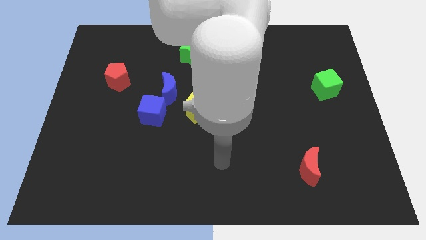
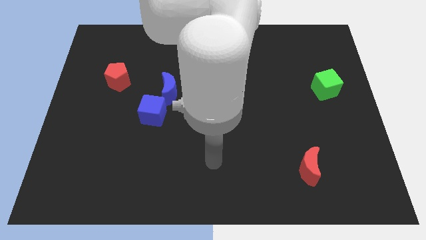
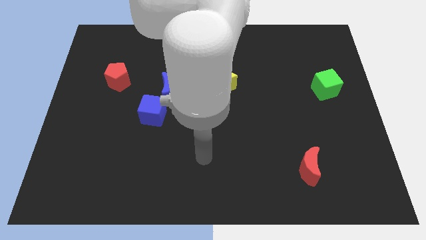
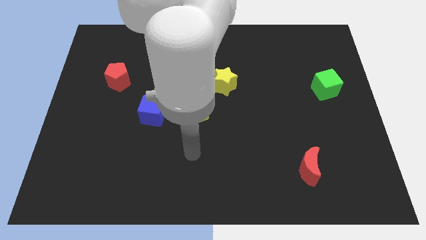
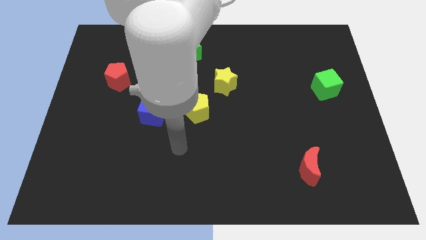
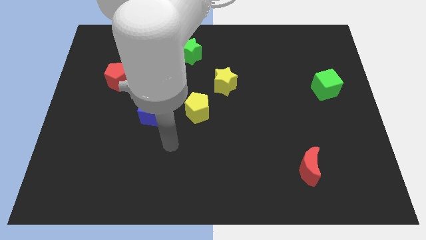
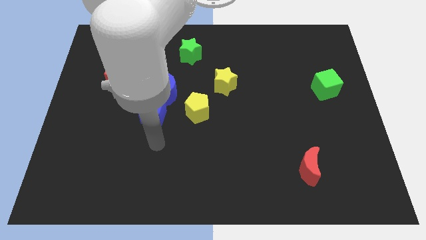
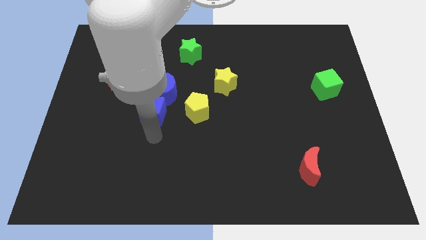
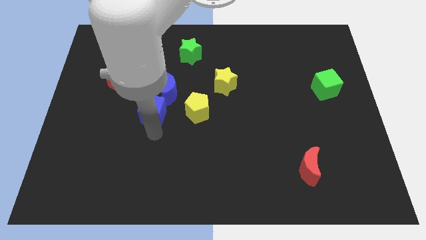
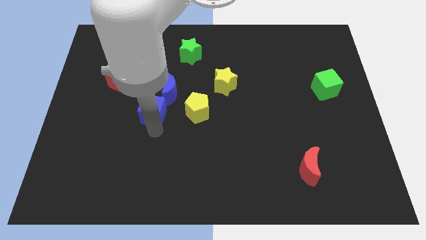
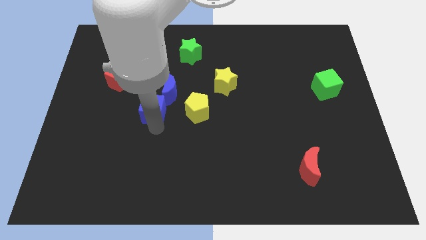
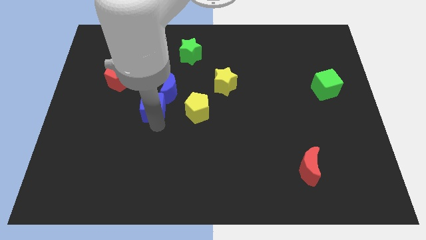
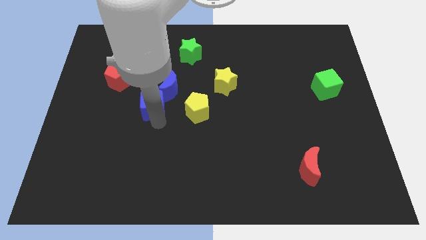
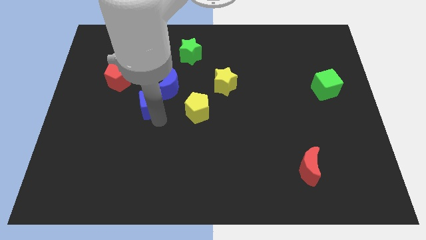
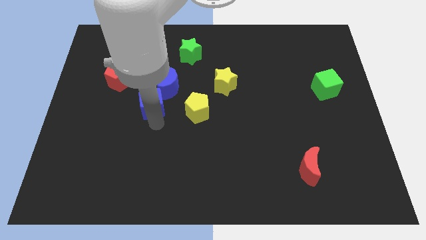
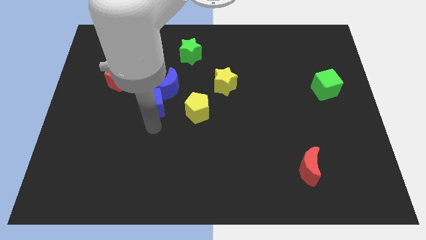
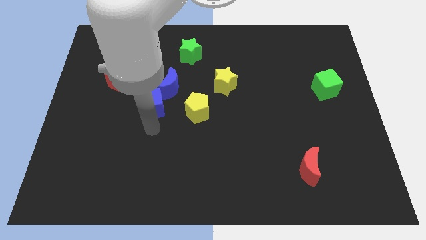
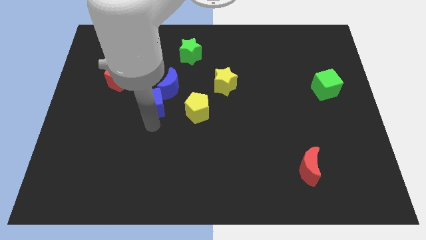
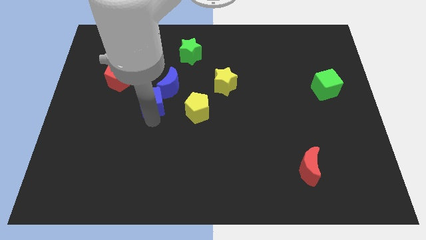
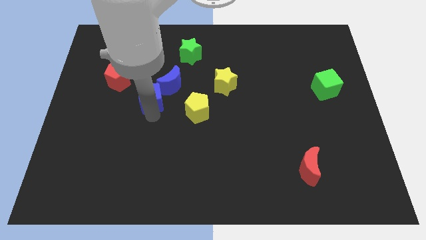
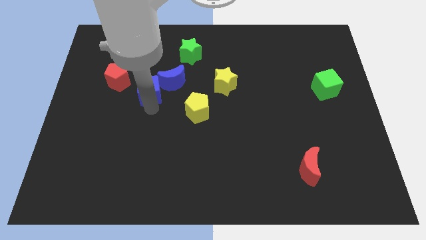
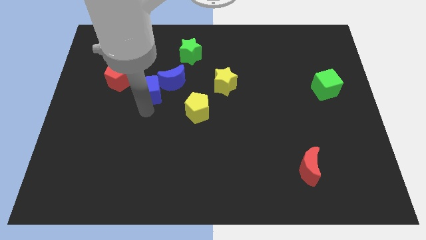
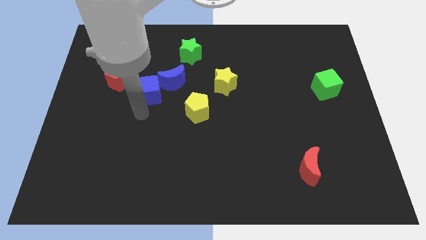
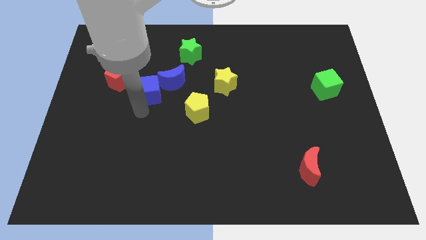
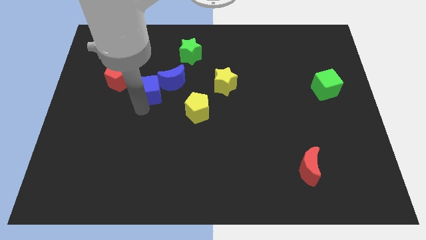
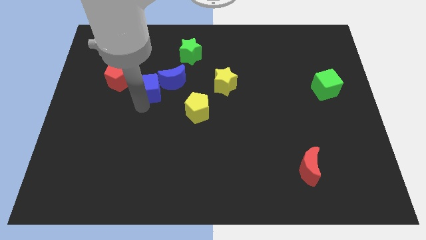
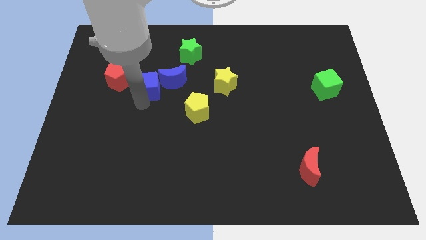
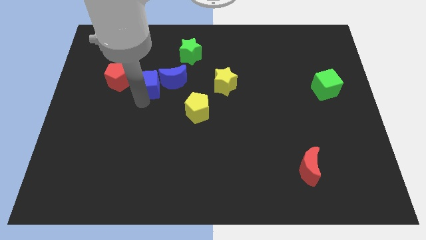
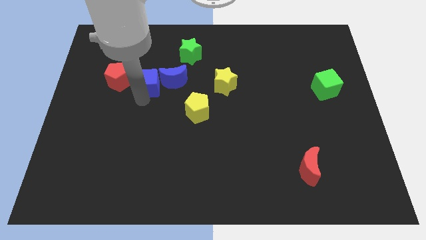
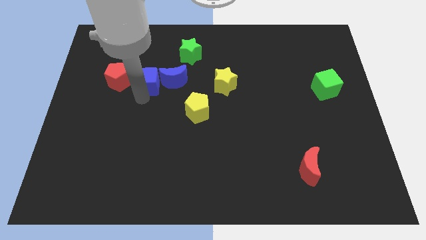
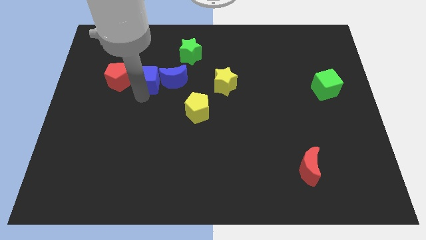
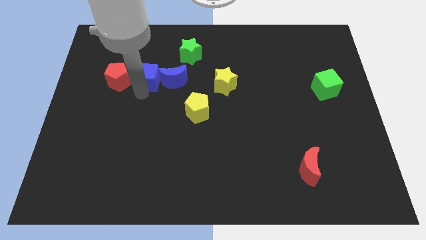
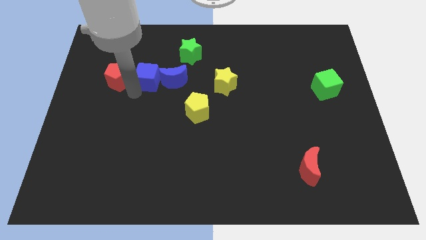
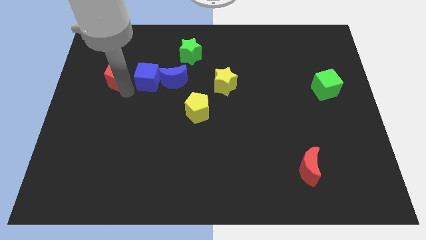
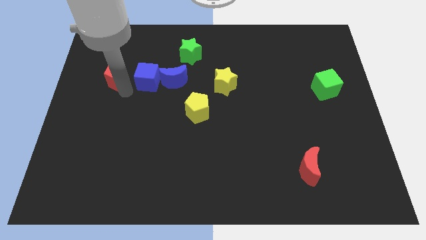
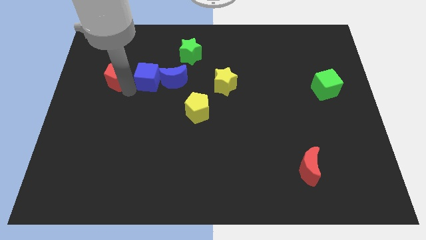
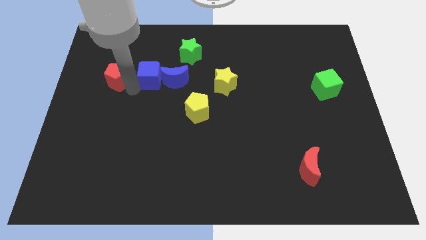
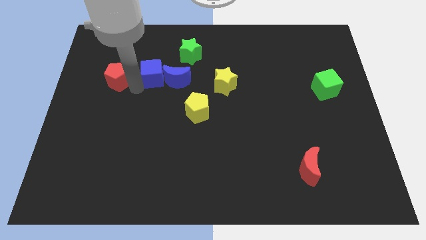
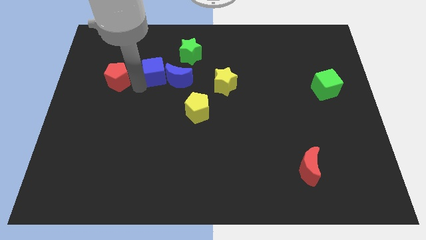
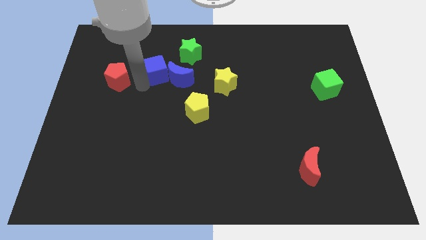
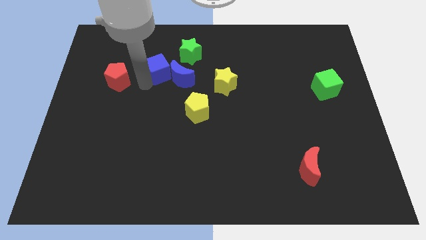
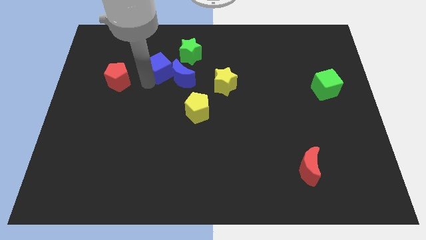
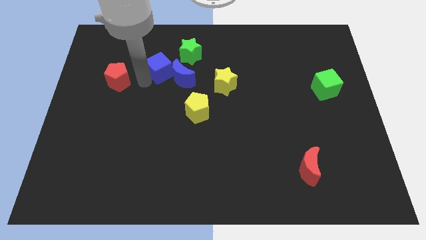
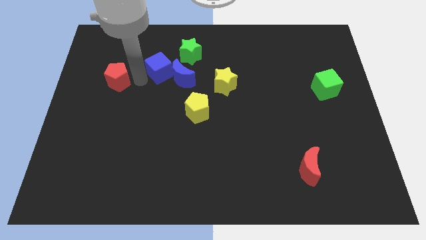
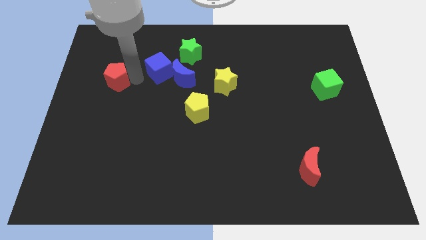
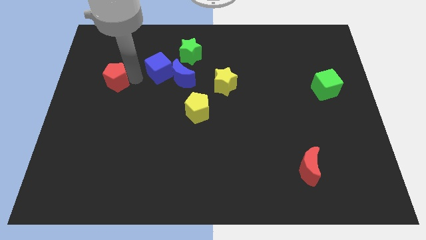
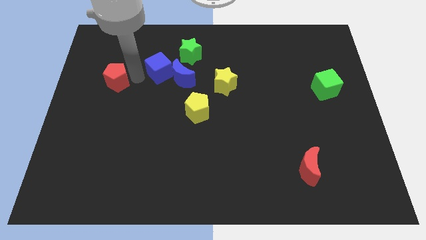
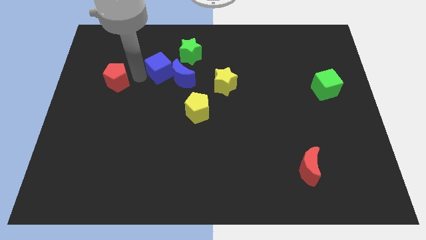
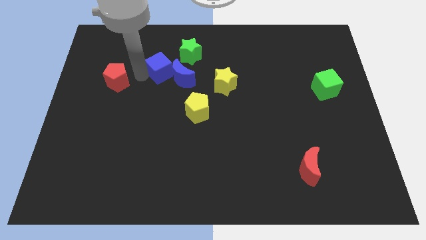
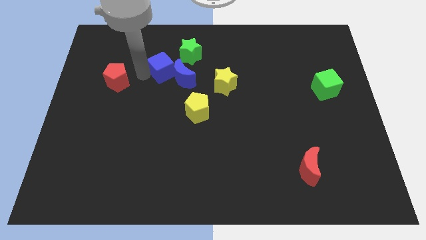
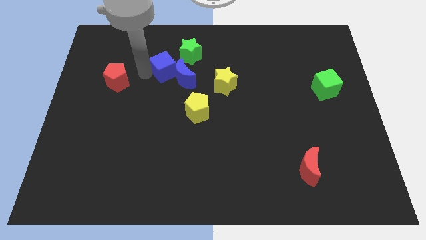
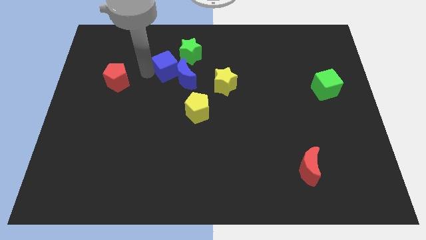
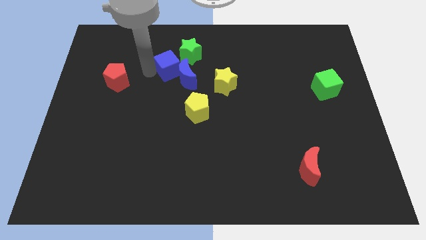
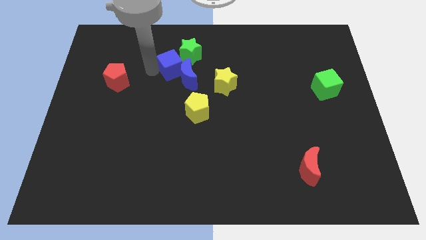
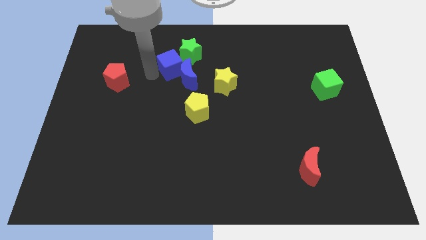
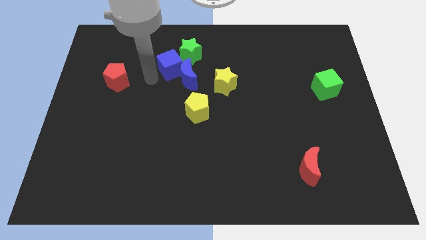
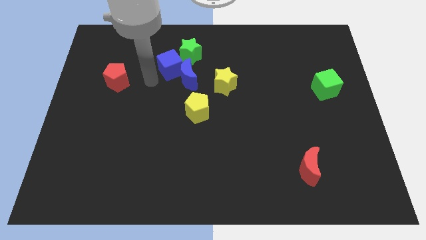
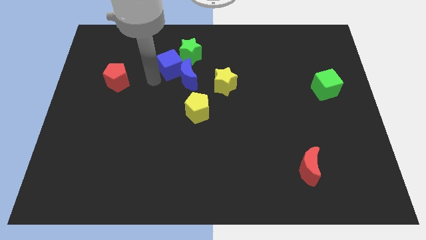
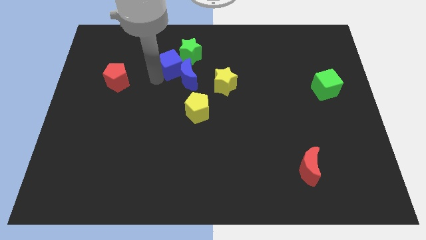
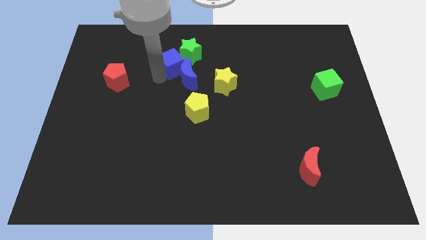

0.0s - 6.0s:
slide the blue cube to the green star
